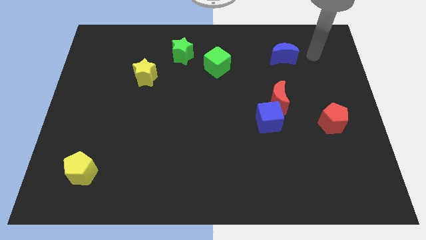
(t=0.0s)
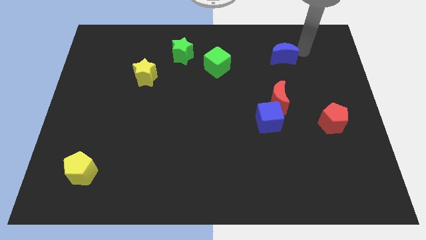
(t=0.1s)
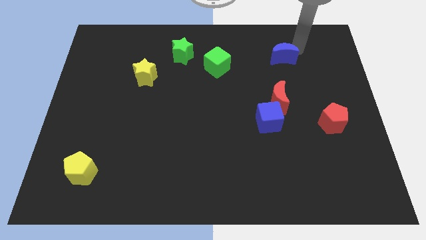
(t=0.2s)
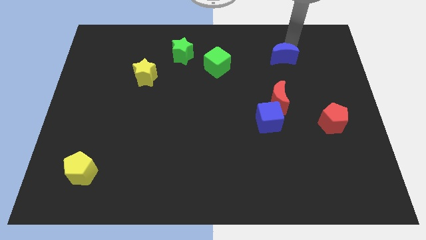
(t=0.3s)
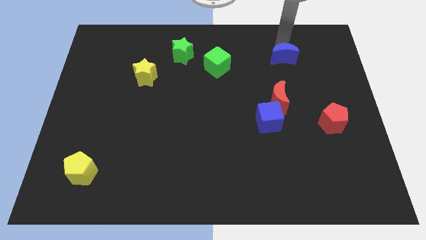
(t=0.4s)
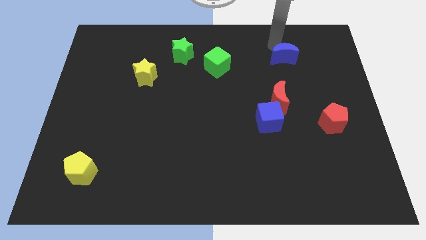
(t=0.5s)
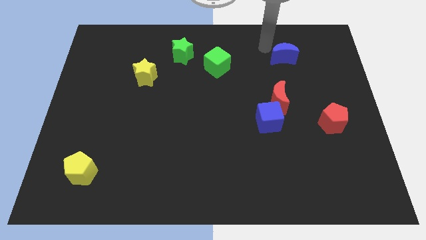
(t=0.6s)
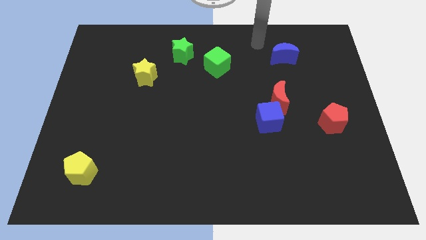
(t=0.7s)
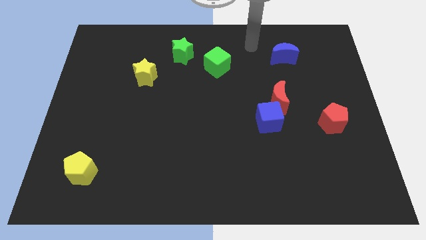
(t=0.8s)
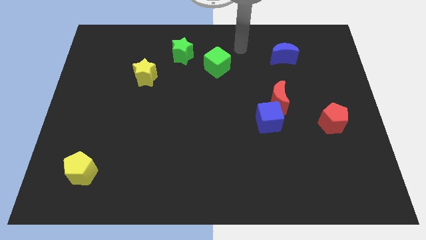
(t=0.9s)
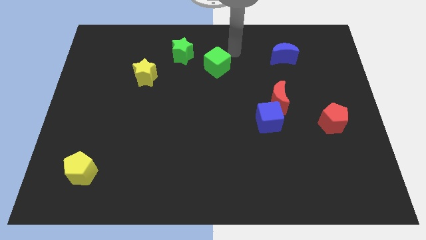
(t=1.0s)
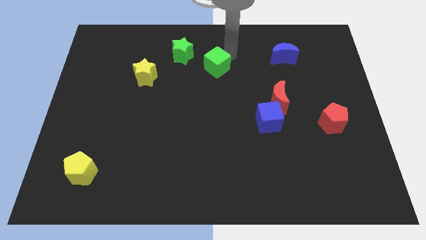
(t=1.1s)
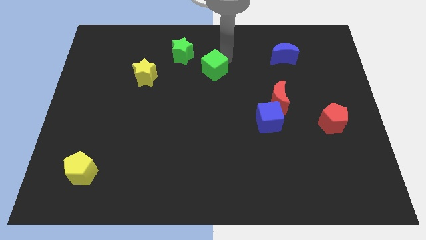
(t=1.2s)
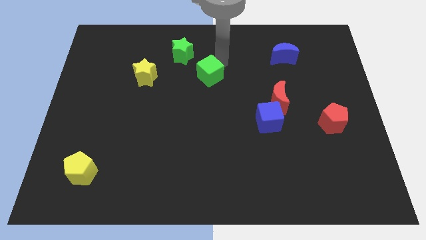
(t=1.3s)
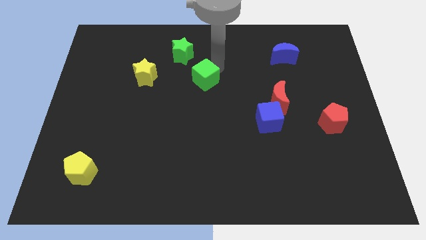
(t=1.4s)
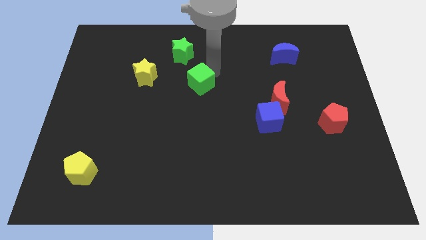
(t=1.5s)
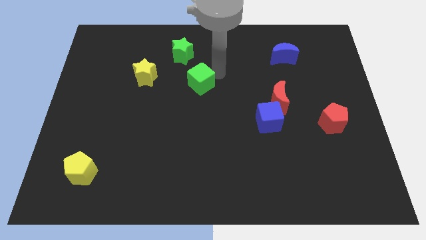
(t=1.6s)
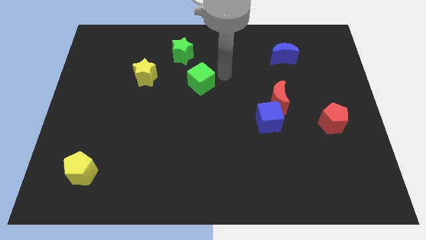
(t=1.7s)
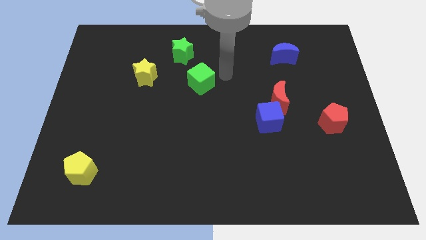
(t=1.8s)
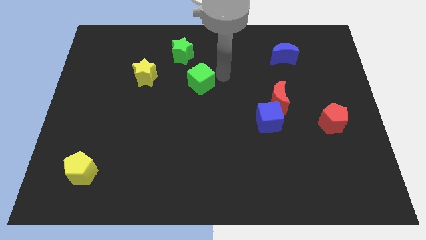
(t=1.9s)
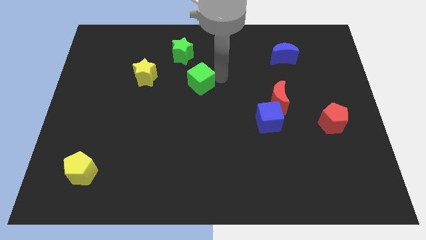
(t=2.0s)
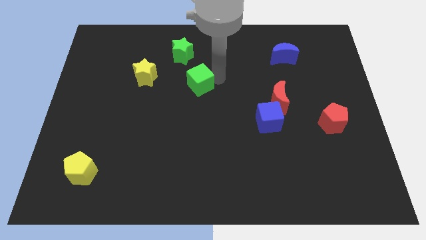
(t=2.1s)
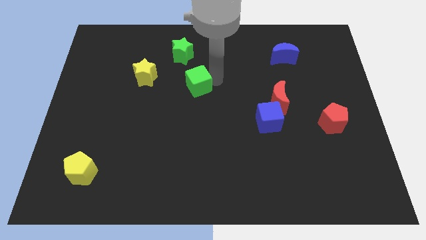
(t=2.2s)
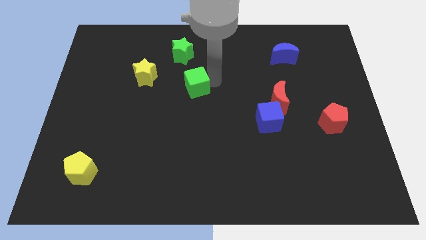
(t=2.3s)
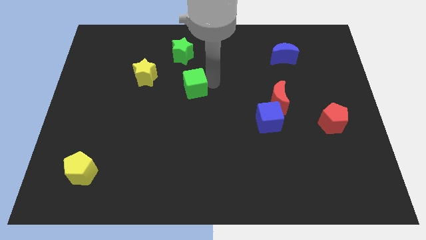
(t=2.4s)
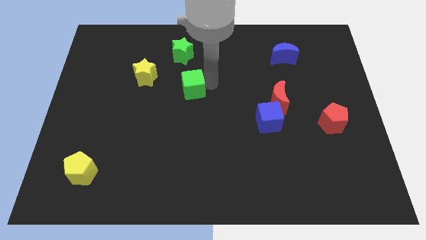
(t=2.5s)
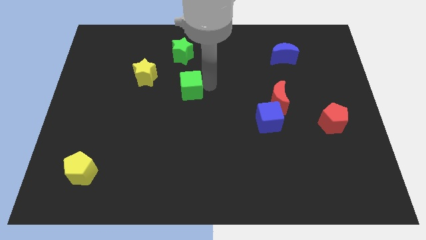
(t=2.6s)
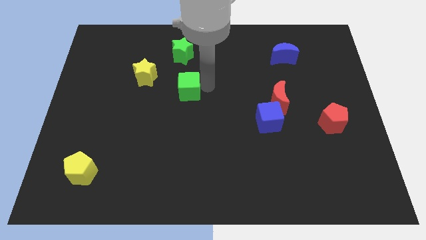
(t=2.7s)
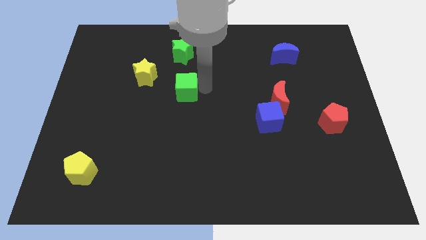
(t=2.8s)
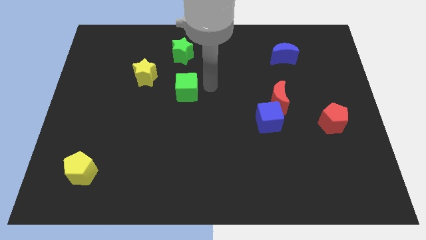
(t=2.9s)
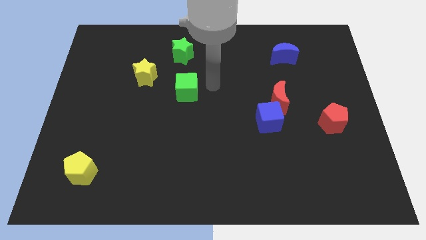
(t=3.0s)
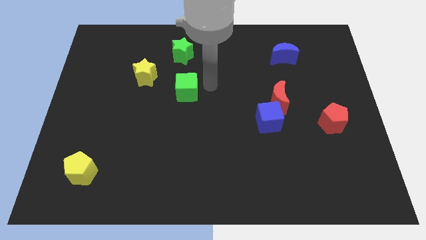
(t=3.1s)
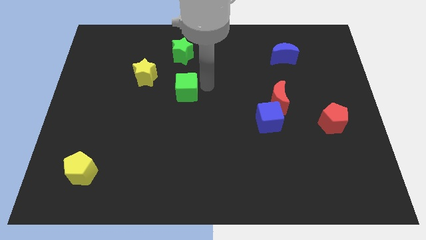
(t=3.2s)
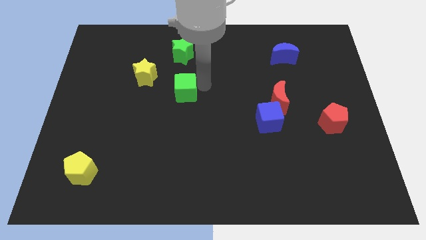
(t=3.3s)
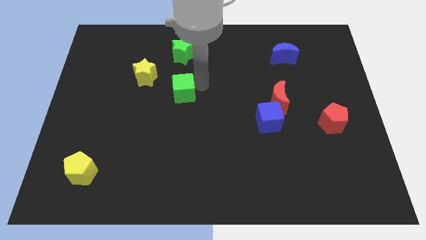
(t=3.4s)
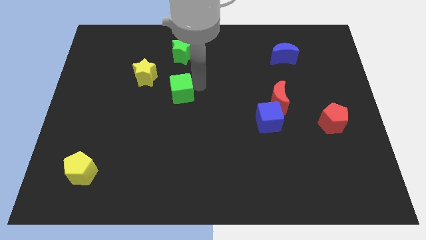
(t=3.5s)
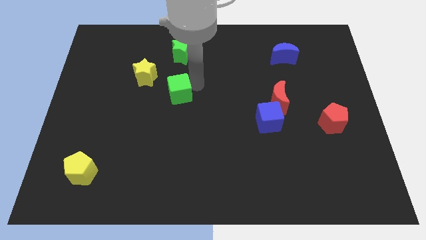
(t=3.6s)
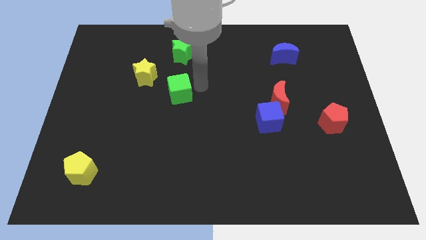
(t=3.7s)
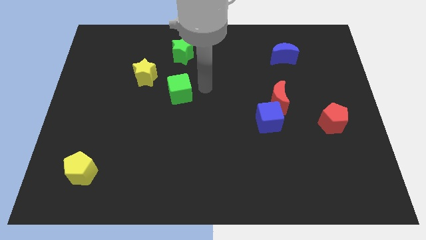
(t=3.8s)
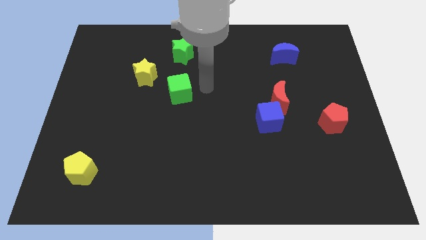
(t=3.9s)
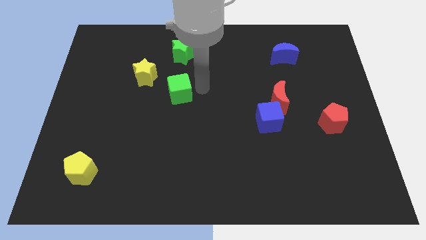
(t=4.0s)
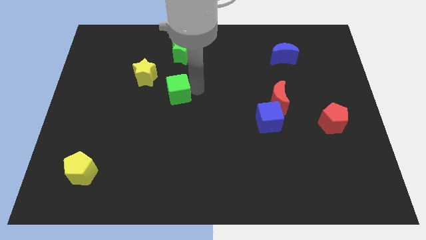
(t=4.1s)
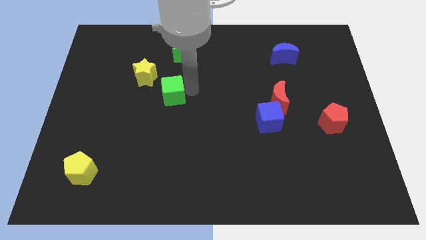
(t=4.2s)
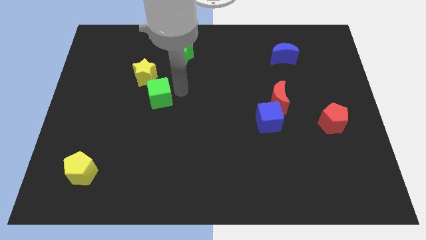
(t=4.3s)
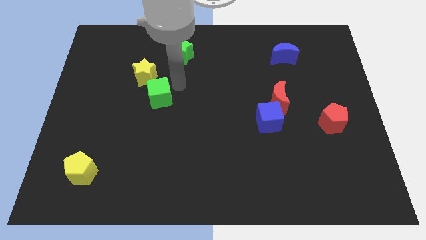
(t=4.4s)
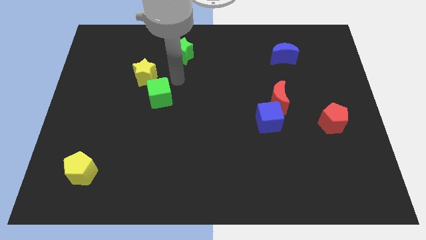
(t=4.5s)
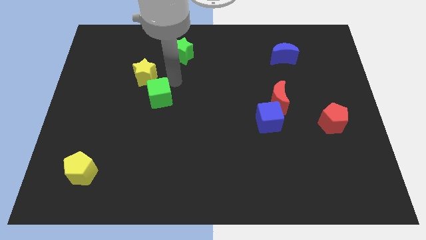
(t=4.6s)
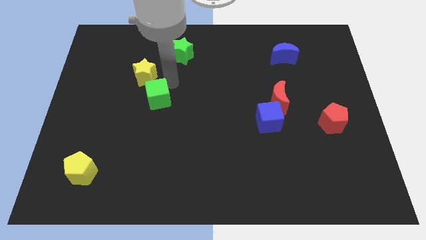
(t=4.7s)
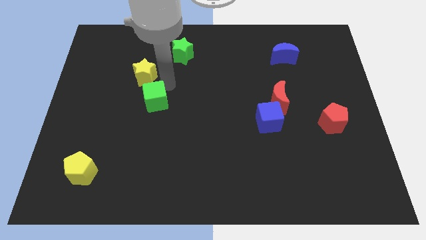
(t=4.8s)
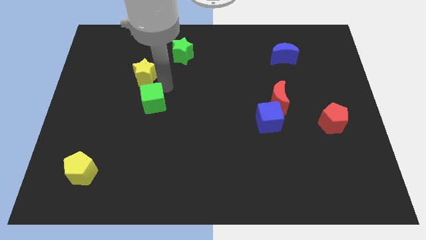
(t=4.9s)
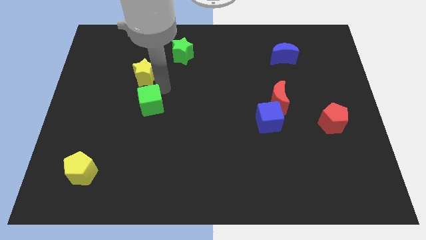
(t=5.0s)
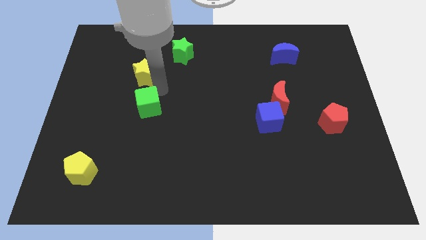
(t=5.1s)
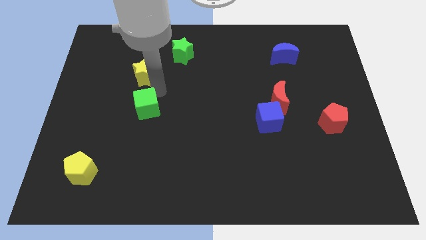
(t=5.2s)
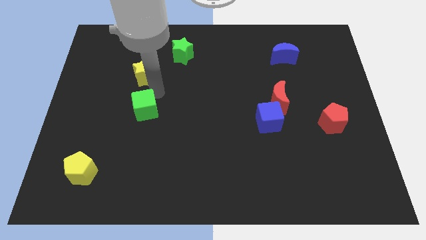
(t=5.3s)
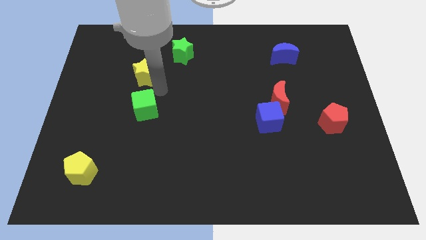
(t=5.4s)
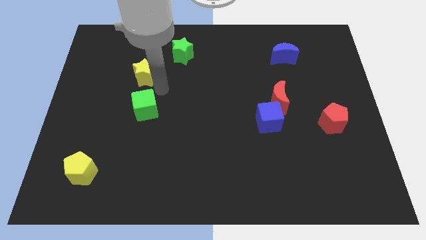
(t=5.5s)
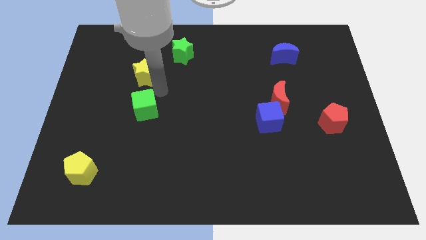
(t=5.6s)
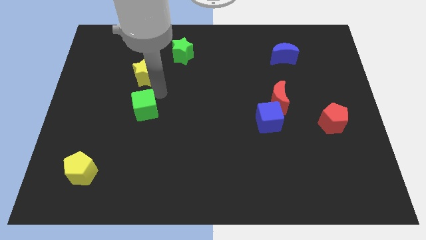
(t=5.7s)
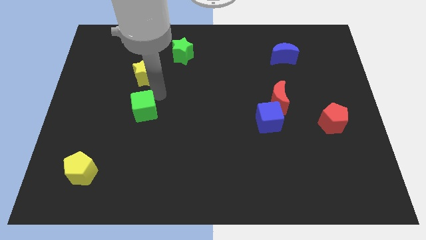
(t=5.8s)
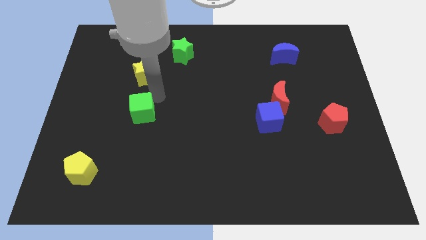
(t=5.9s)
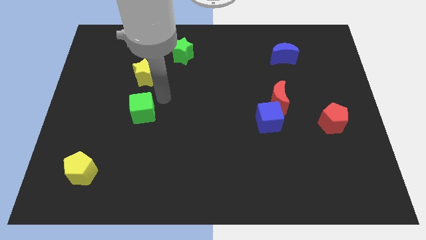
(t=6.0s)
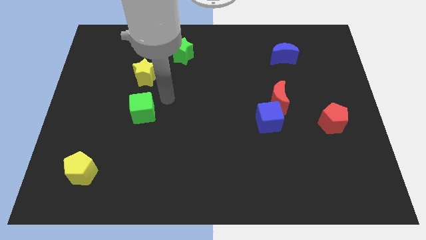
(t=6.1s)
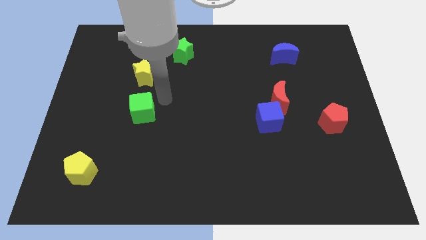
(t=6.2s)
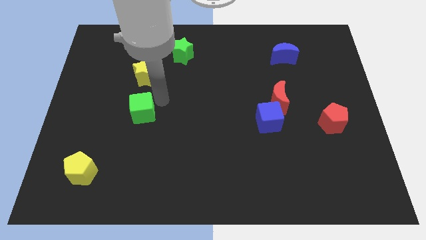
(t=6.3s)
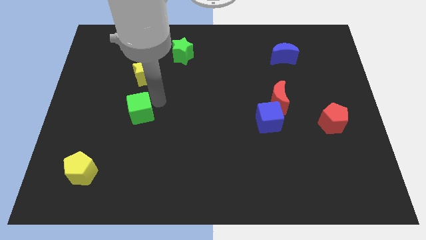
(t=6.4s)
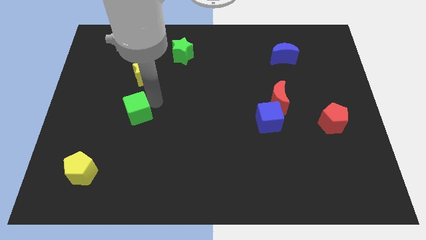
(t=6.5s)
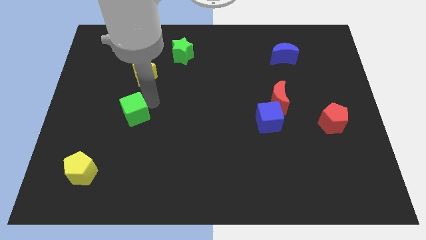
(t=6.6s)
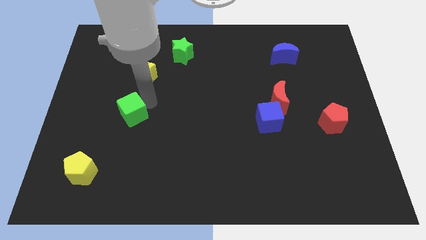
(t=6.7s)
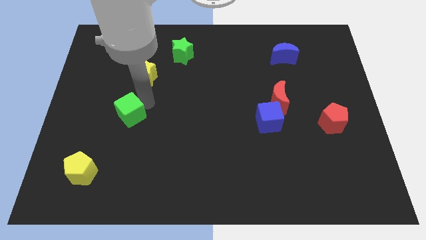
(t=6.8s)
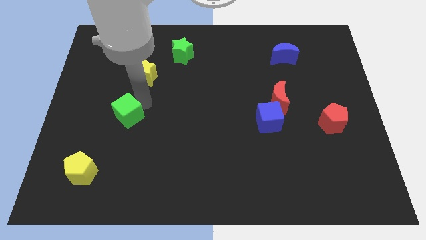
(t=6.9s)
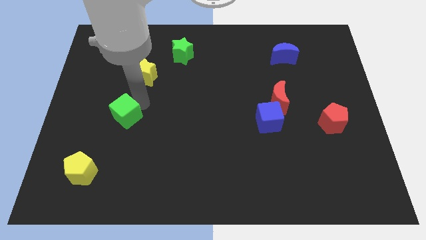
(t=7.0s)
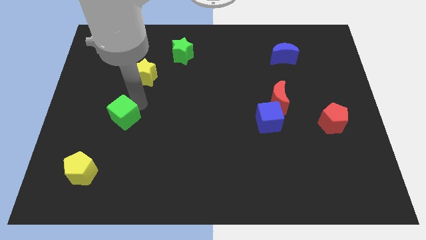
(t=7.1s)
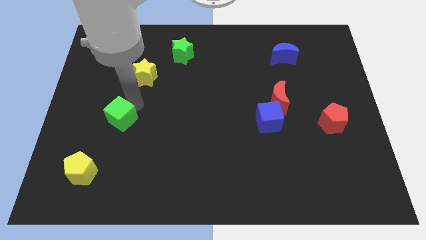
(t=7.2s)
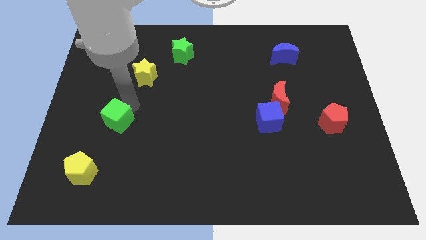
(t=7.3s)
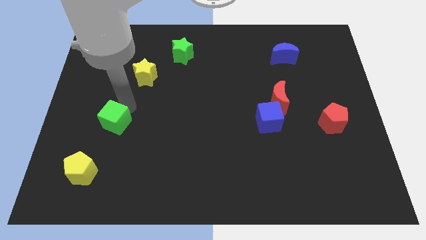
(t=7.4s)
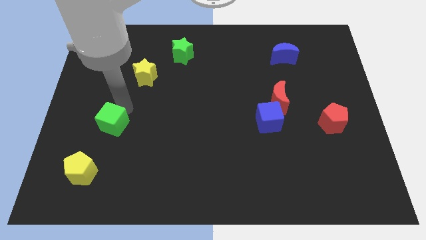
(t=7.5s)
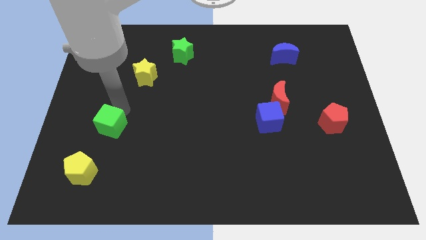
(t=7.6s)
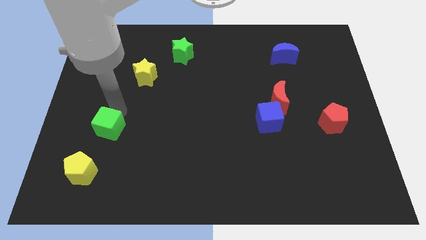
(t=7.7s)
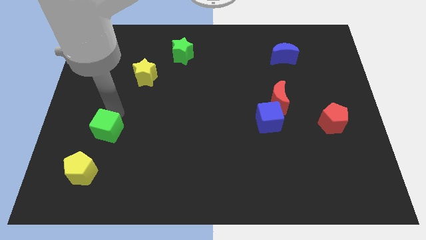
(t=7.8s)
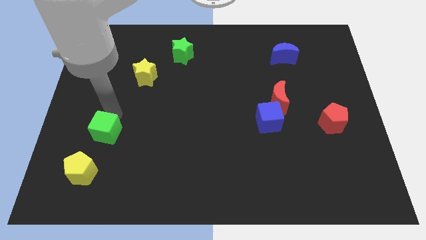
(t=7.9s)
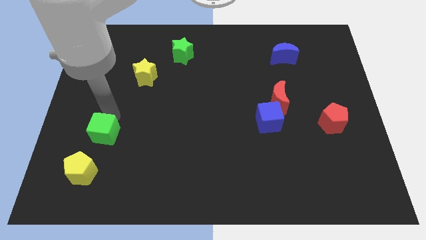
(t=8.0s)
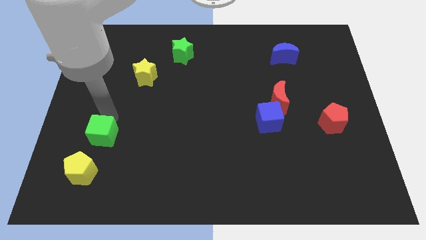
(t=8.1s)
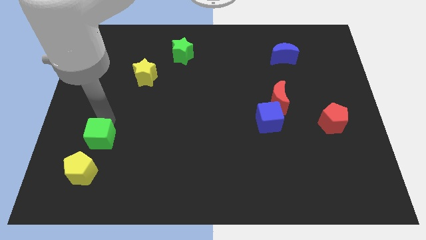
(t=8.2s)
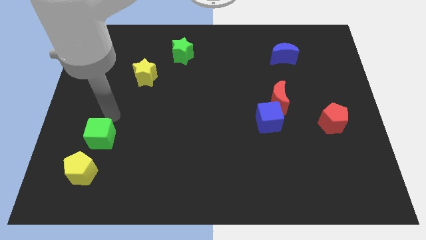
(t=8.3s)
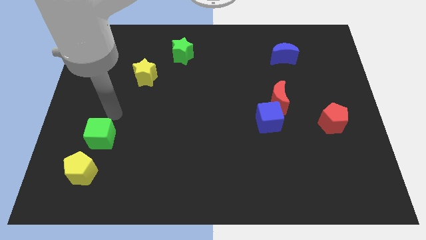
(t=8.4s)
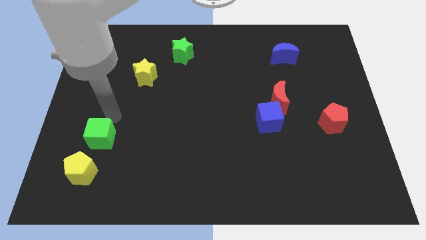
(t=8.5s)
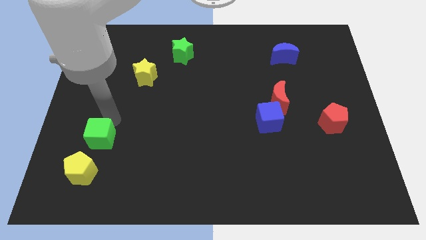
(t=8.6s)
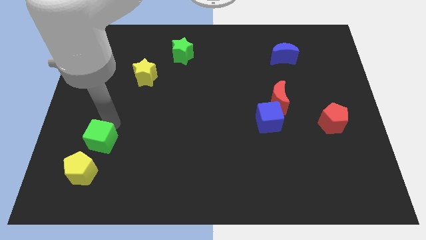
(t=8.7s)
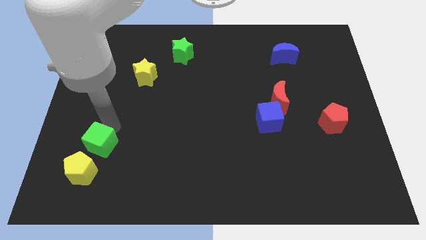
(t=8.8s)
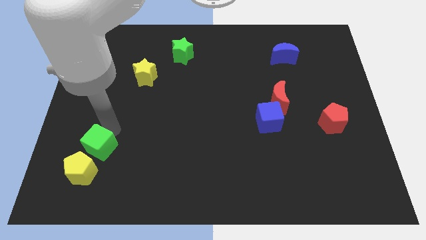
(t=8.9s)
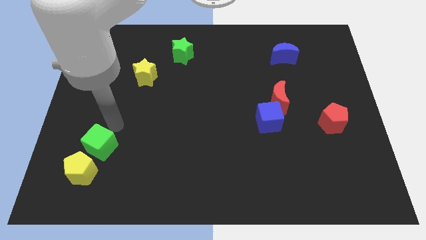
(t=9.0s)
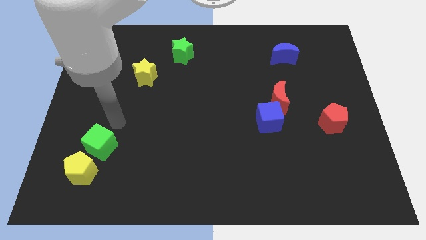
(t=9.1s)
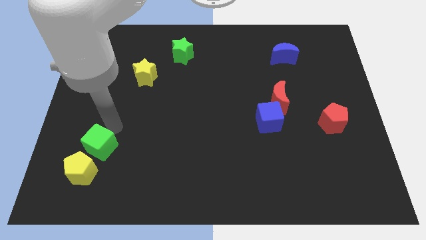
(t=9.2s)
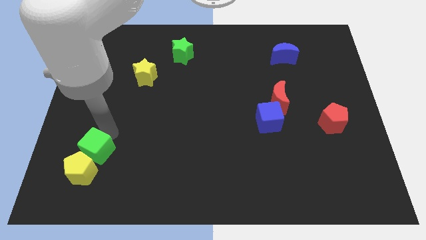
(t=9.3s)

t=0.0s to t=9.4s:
push the green cube to the yellow pentagon
